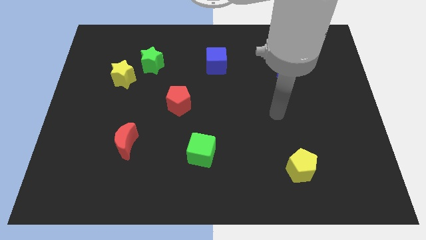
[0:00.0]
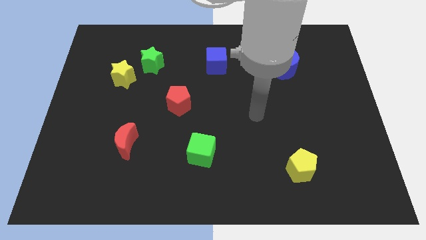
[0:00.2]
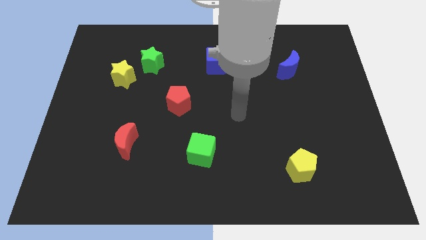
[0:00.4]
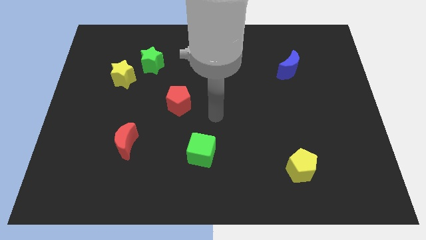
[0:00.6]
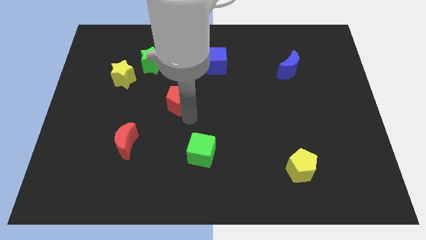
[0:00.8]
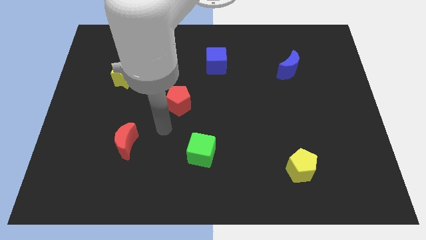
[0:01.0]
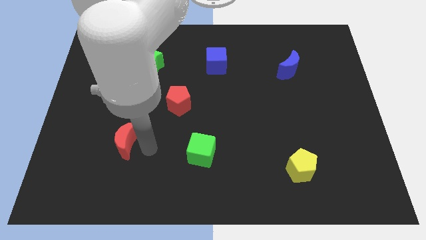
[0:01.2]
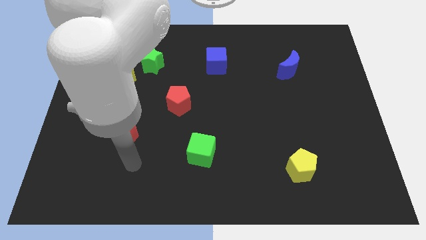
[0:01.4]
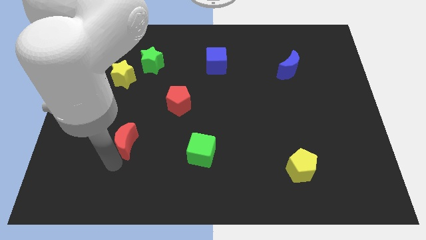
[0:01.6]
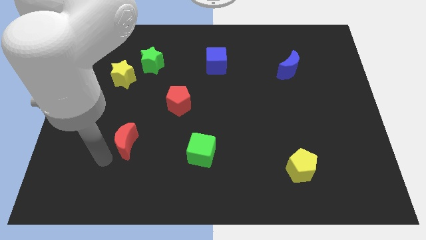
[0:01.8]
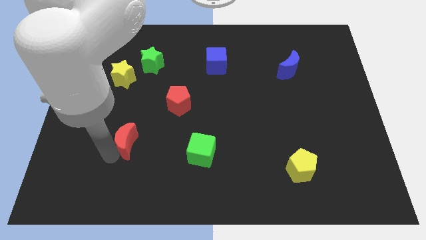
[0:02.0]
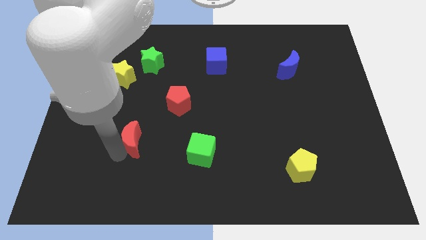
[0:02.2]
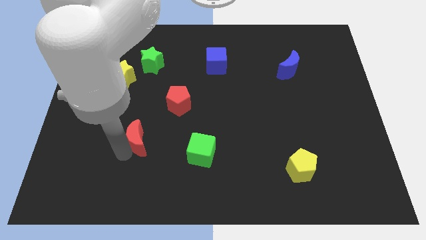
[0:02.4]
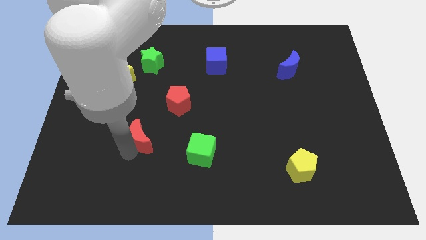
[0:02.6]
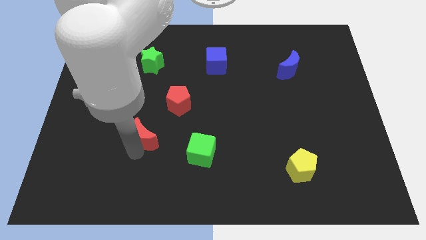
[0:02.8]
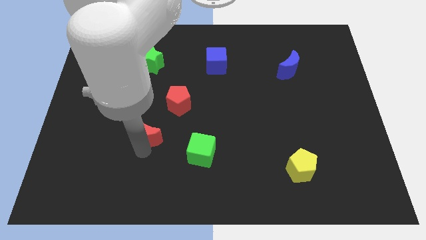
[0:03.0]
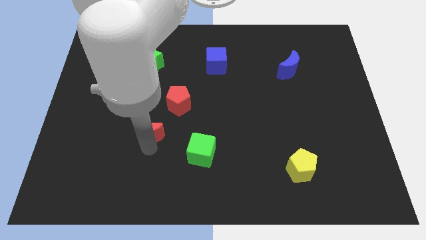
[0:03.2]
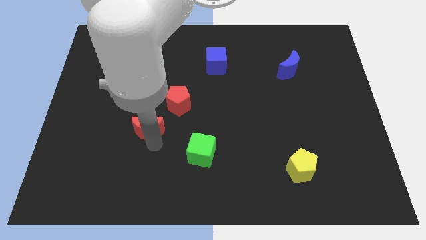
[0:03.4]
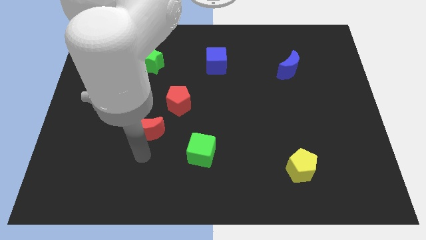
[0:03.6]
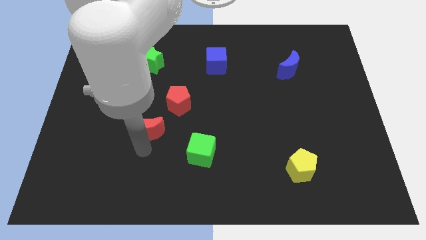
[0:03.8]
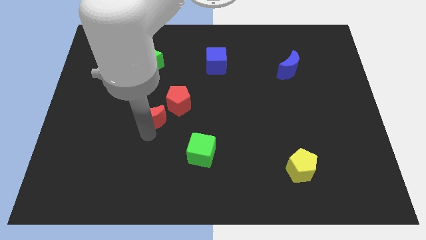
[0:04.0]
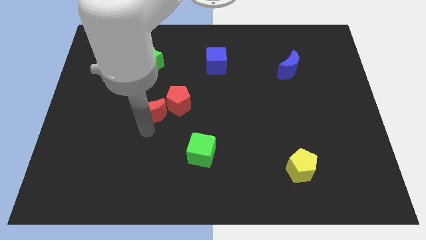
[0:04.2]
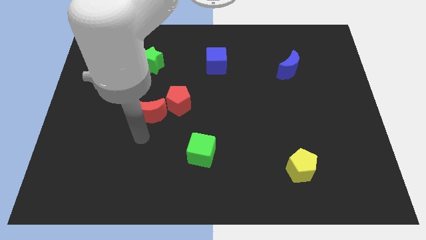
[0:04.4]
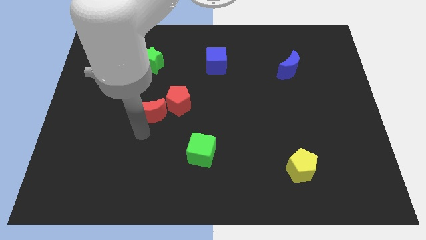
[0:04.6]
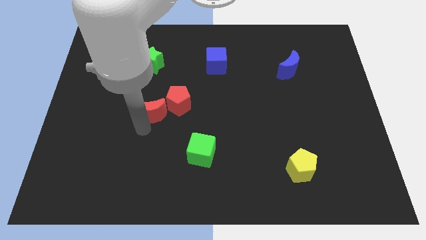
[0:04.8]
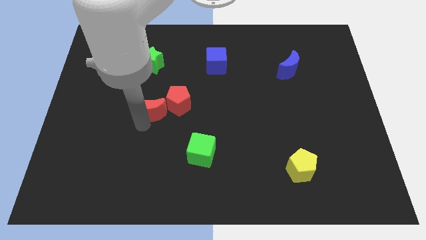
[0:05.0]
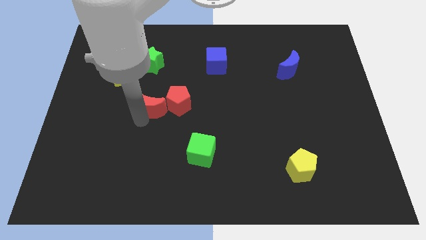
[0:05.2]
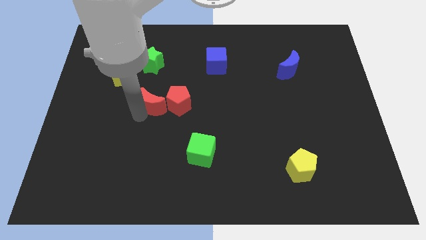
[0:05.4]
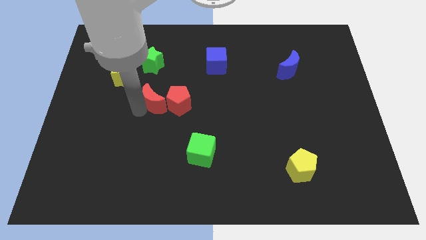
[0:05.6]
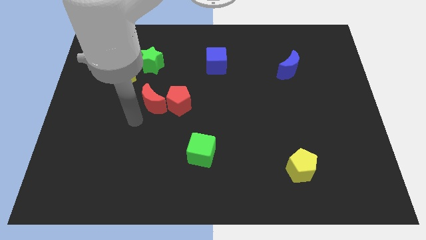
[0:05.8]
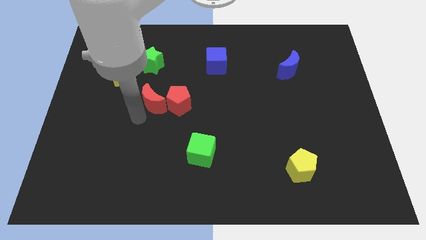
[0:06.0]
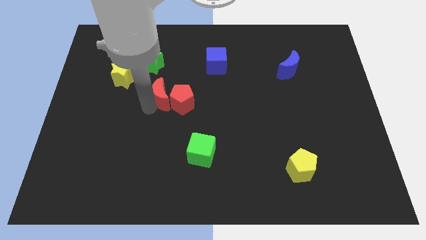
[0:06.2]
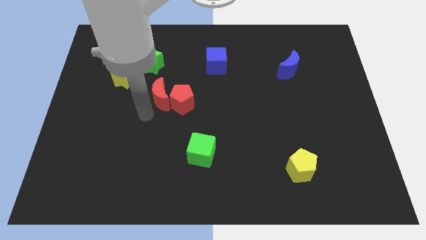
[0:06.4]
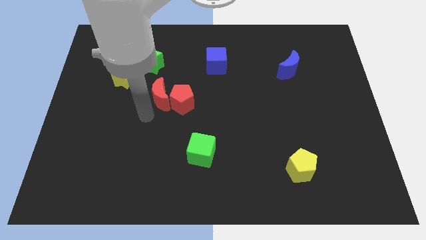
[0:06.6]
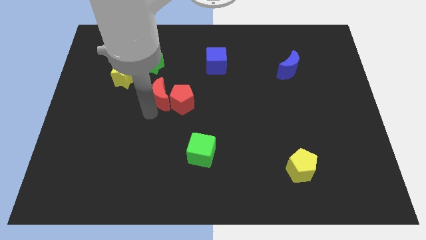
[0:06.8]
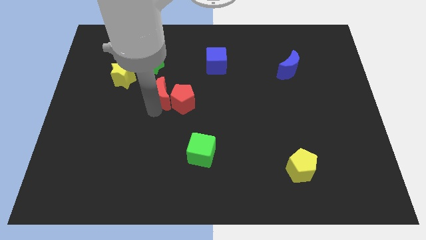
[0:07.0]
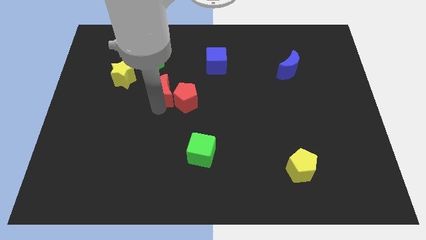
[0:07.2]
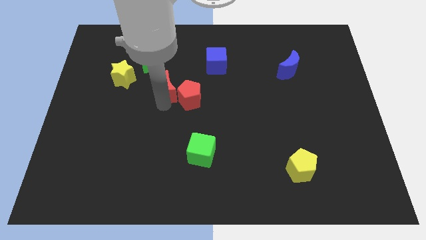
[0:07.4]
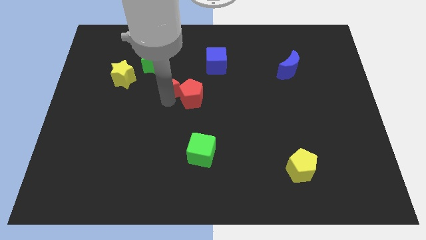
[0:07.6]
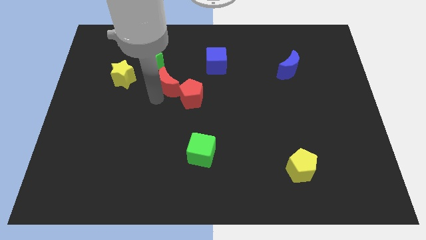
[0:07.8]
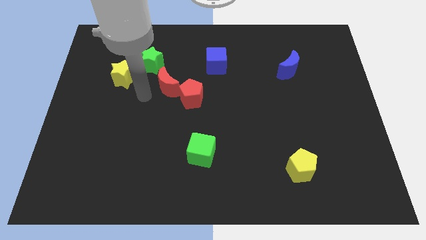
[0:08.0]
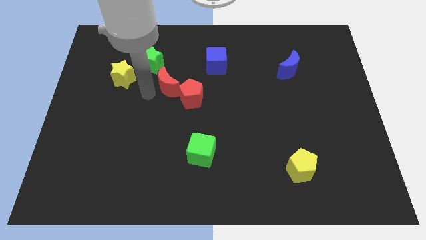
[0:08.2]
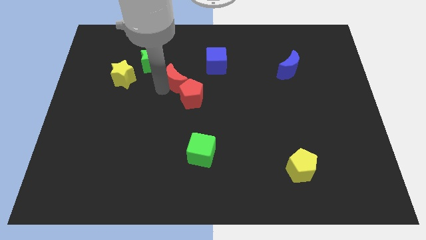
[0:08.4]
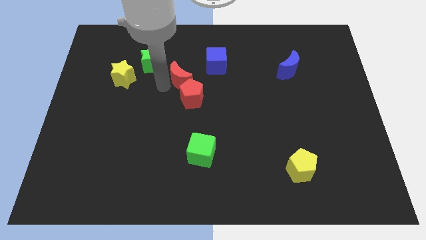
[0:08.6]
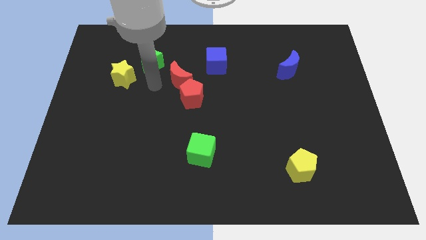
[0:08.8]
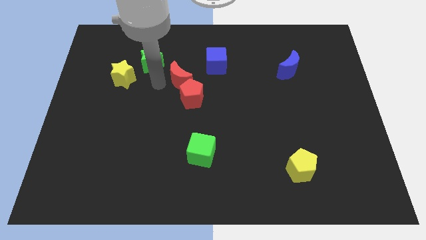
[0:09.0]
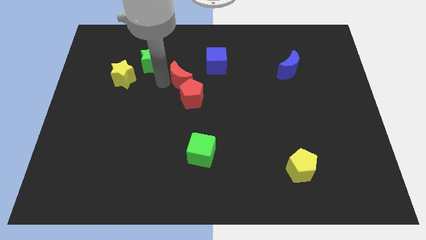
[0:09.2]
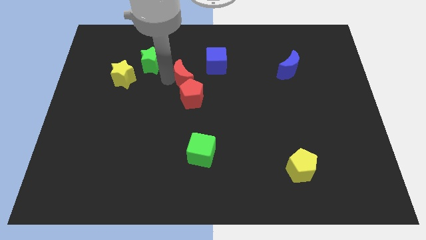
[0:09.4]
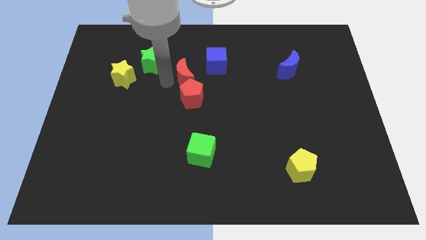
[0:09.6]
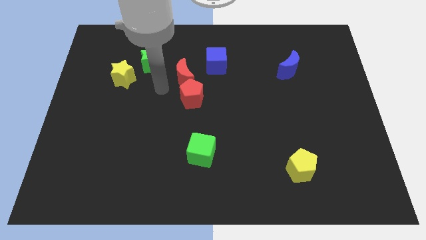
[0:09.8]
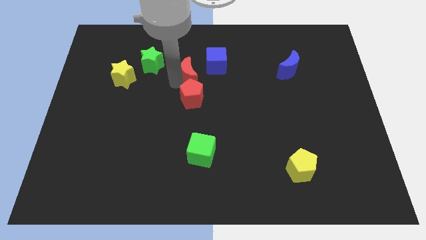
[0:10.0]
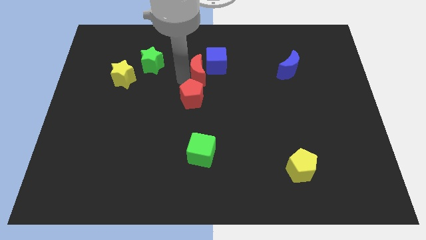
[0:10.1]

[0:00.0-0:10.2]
slide the red moon towards the blue cube

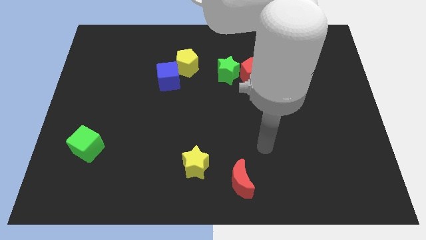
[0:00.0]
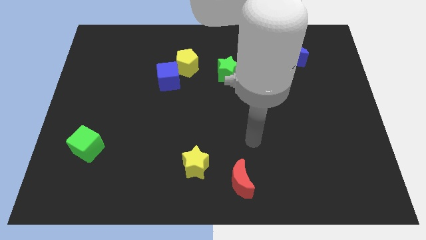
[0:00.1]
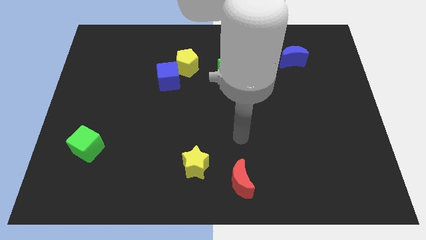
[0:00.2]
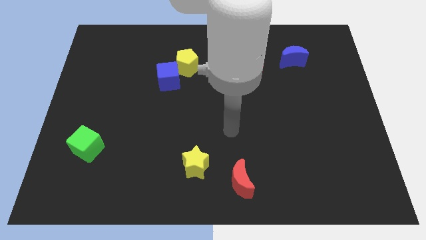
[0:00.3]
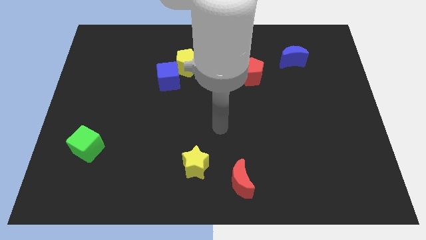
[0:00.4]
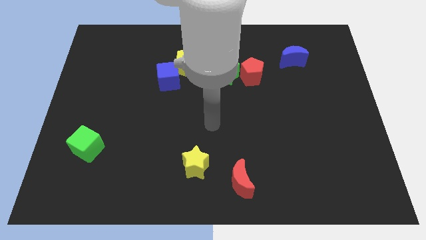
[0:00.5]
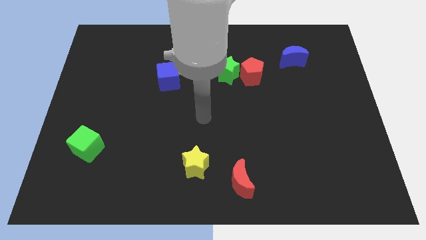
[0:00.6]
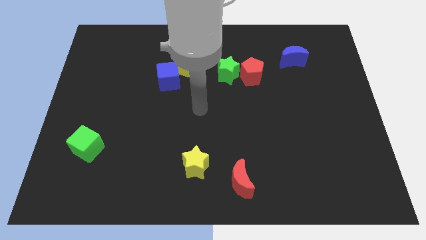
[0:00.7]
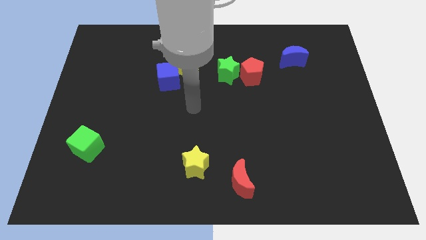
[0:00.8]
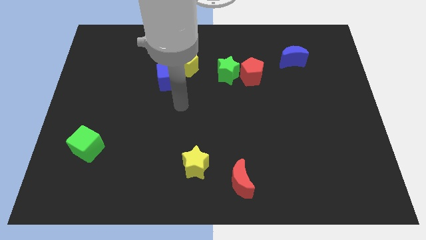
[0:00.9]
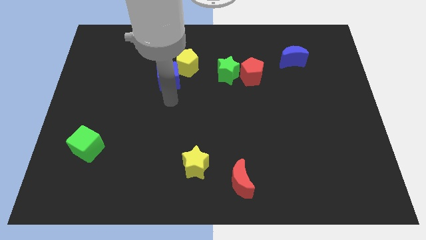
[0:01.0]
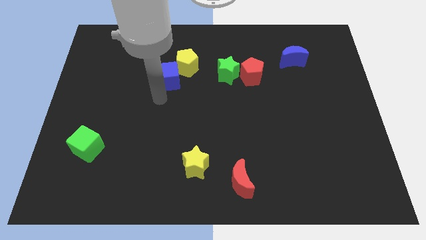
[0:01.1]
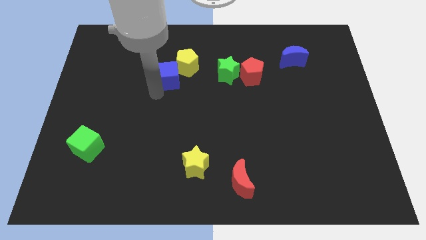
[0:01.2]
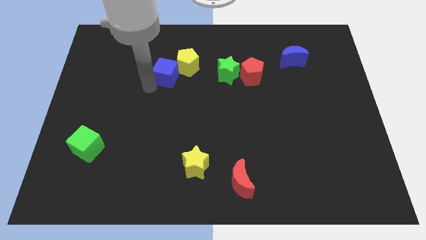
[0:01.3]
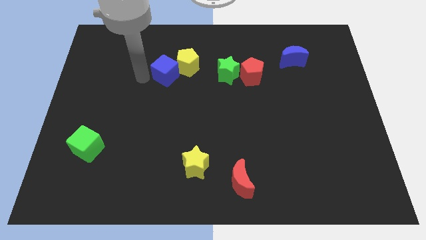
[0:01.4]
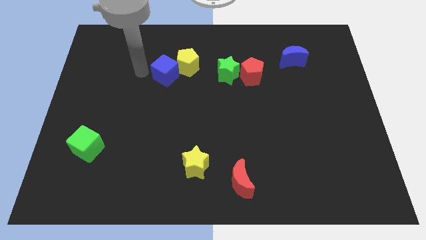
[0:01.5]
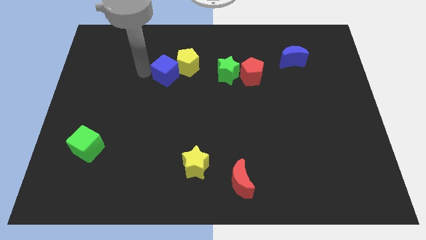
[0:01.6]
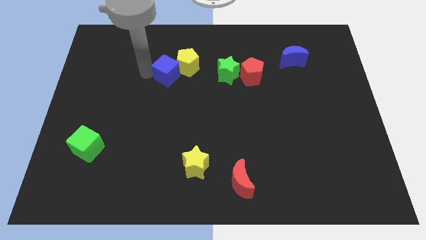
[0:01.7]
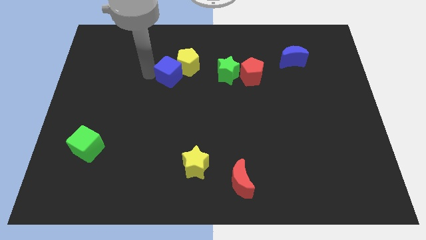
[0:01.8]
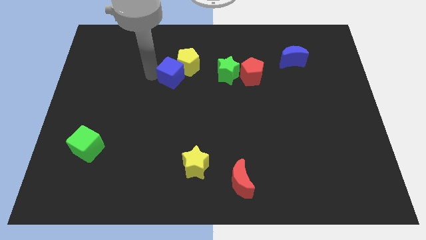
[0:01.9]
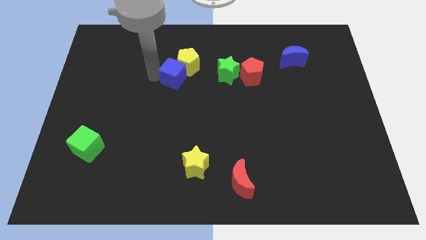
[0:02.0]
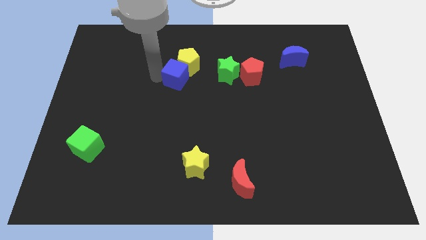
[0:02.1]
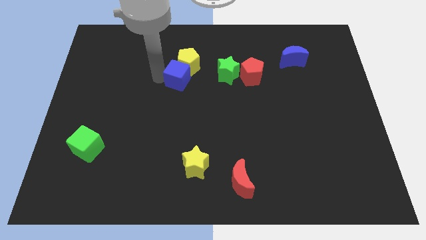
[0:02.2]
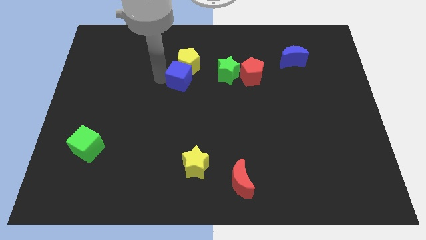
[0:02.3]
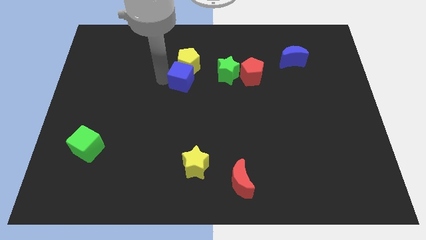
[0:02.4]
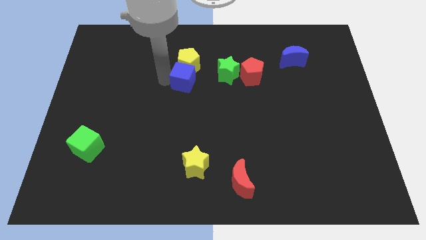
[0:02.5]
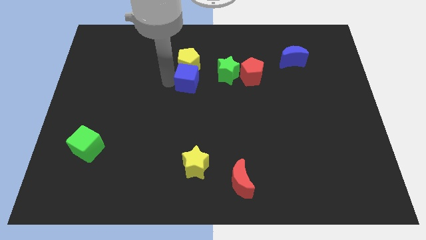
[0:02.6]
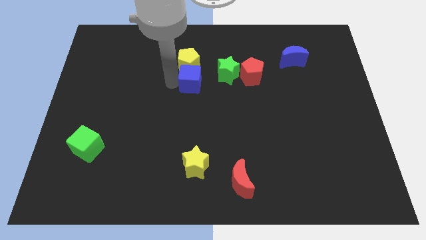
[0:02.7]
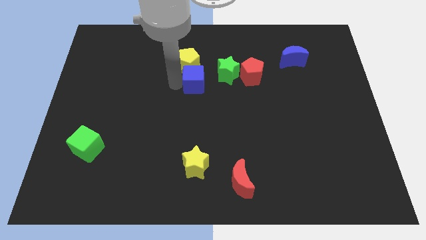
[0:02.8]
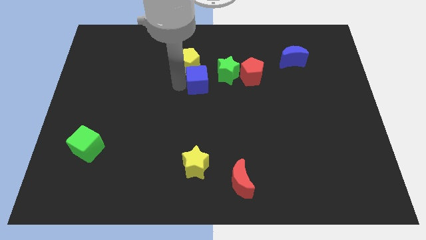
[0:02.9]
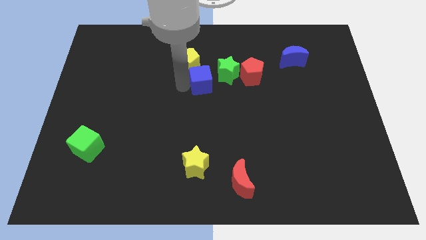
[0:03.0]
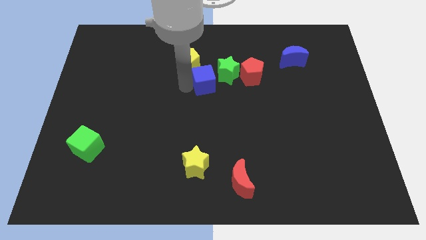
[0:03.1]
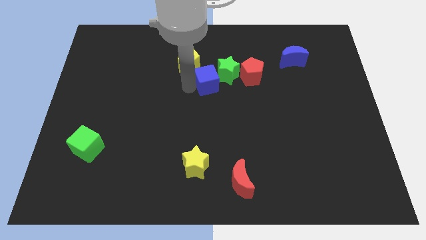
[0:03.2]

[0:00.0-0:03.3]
move the blue cube close to the green star

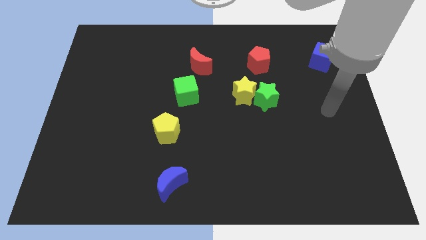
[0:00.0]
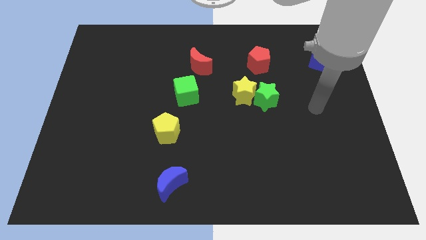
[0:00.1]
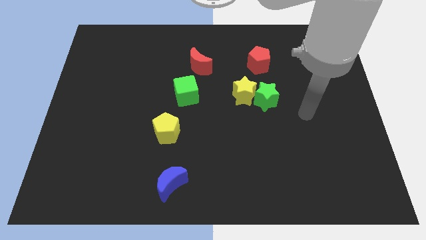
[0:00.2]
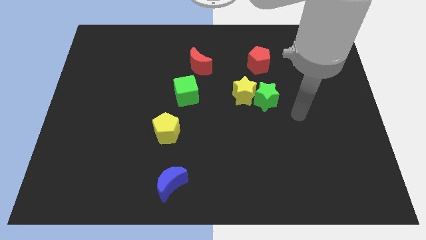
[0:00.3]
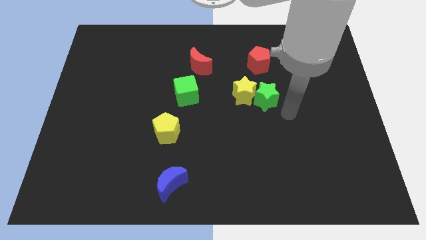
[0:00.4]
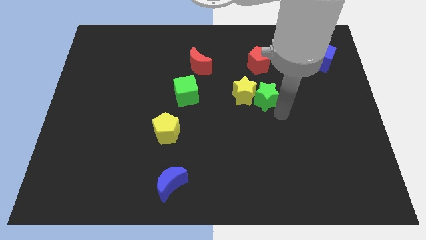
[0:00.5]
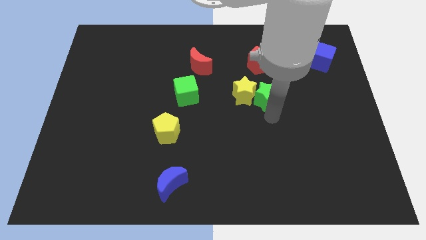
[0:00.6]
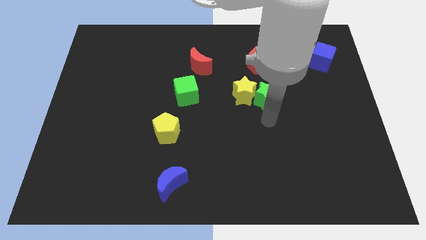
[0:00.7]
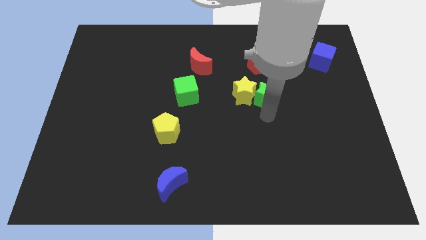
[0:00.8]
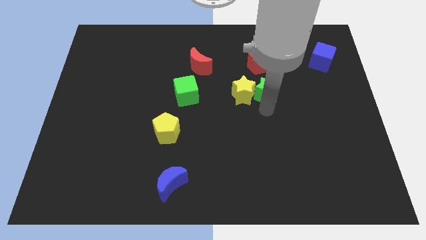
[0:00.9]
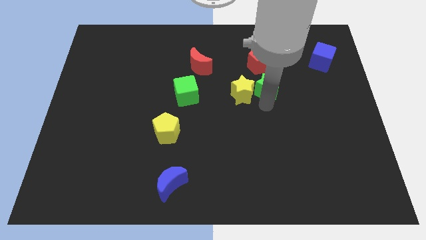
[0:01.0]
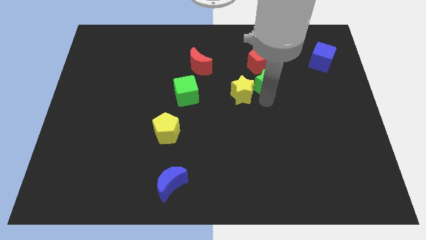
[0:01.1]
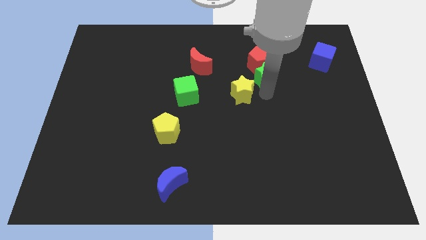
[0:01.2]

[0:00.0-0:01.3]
put the green star close to the red pentagon
